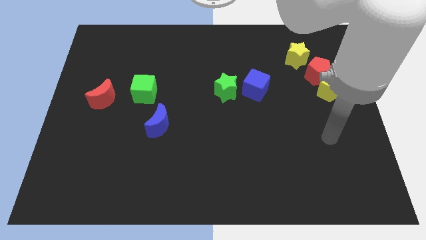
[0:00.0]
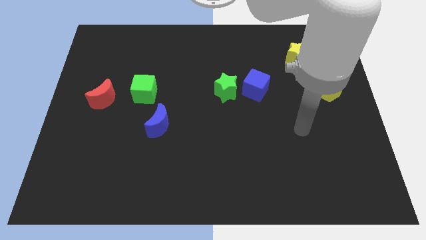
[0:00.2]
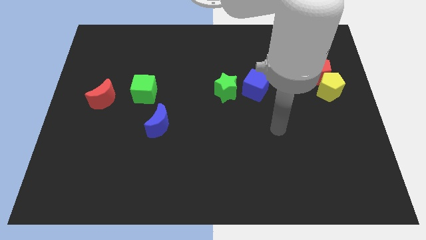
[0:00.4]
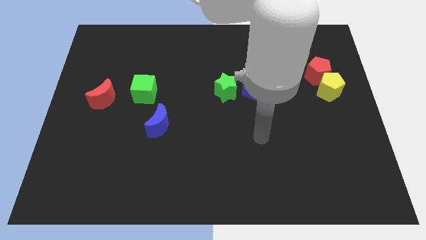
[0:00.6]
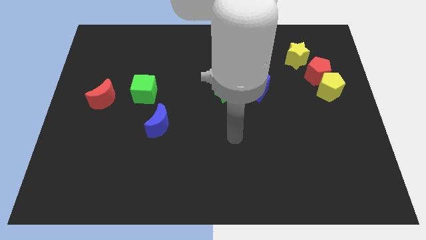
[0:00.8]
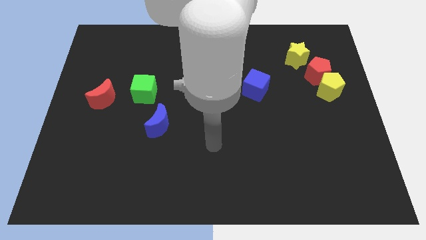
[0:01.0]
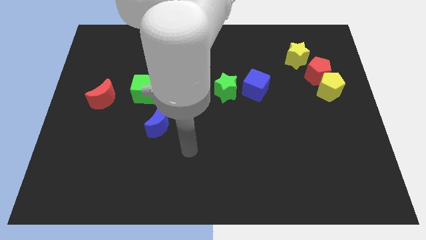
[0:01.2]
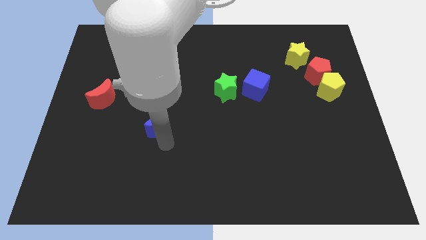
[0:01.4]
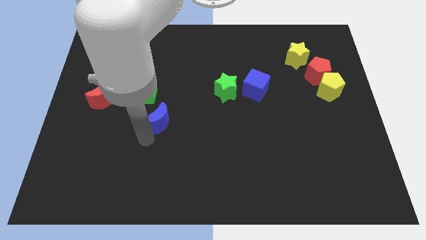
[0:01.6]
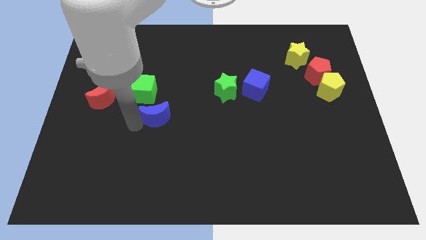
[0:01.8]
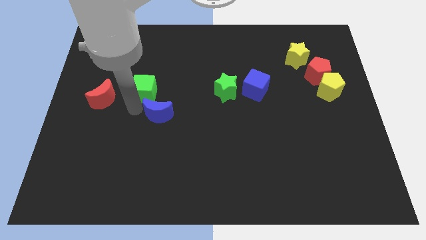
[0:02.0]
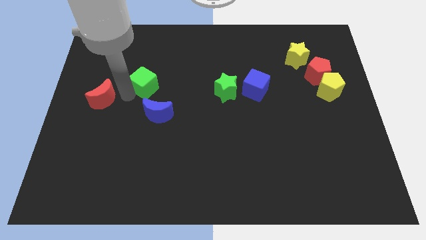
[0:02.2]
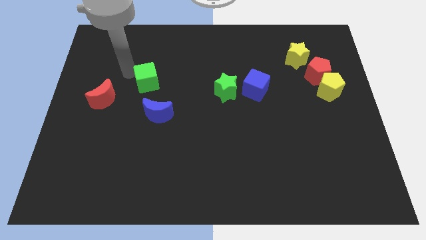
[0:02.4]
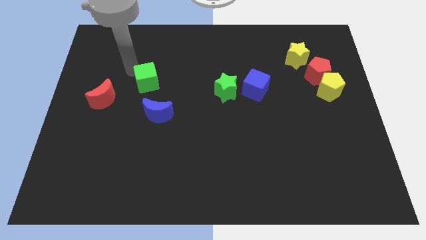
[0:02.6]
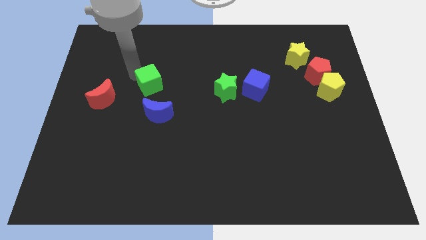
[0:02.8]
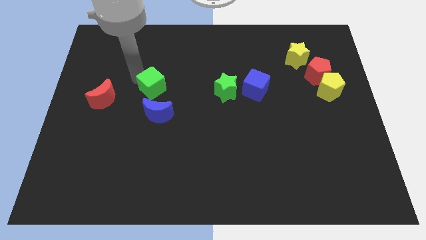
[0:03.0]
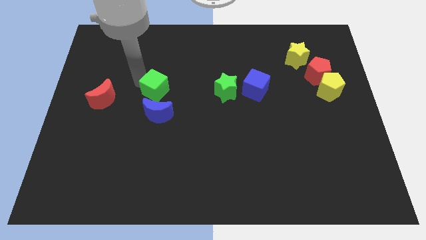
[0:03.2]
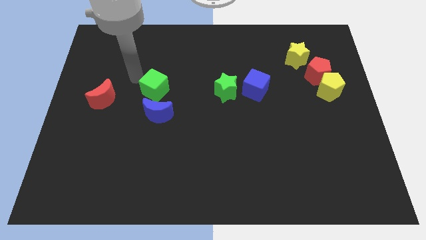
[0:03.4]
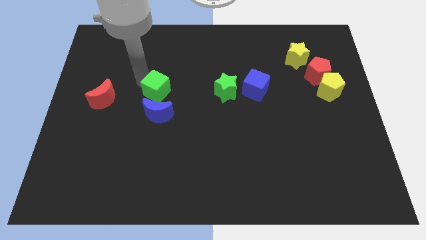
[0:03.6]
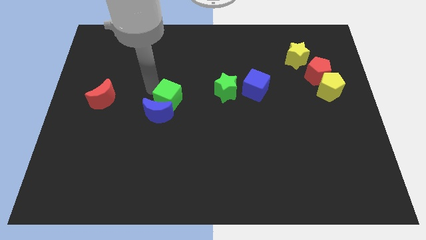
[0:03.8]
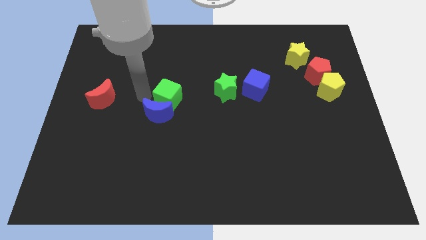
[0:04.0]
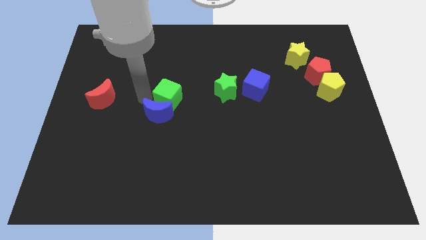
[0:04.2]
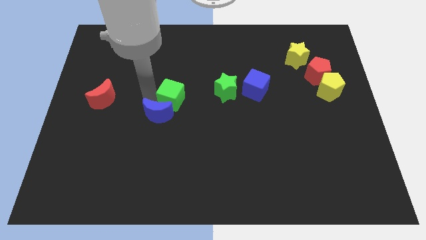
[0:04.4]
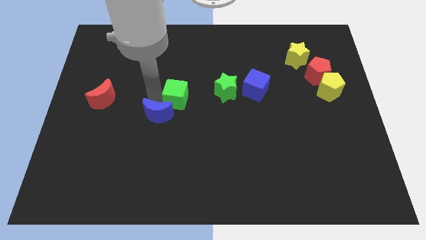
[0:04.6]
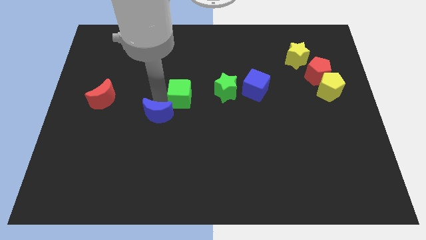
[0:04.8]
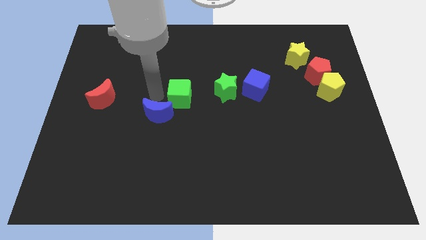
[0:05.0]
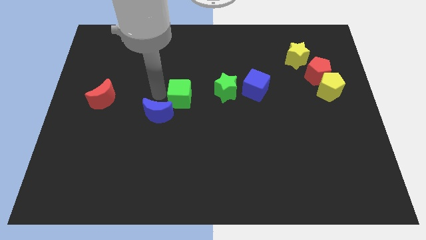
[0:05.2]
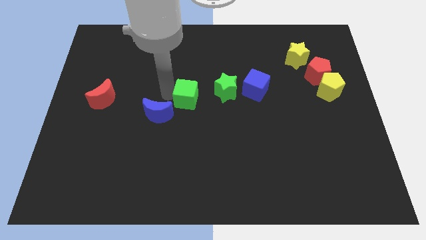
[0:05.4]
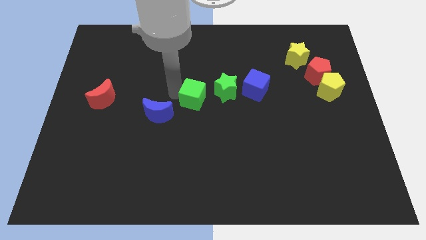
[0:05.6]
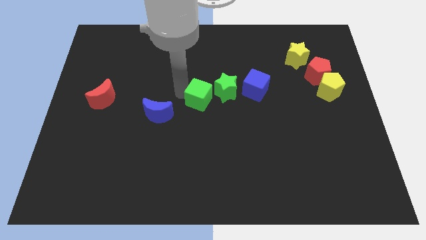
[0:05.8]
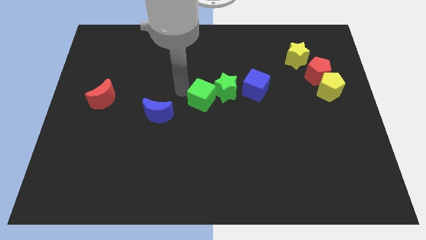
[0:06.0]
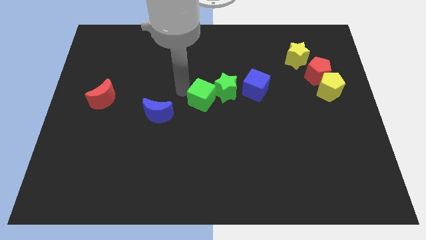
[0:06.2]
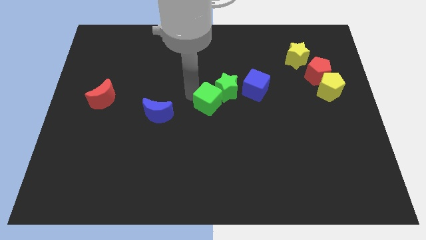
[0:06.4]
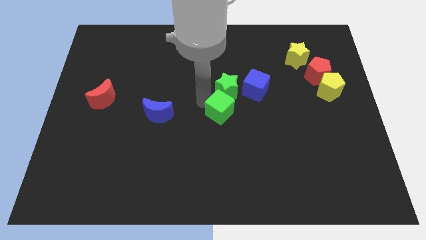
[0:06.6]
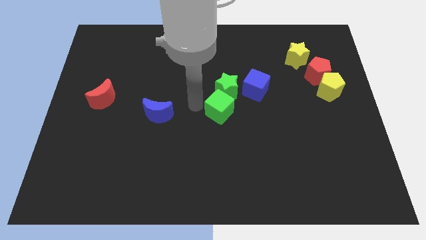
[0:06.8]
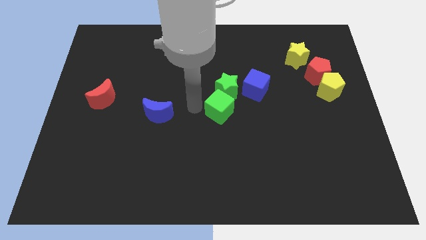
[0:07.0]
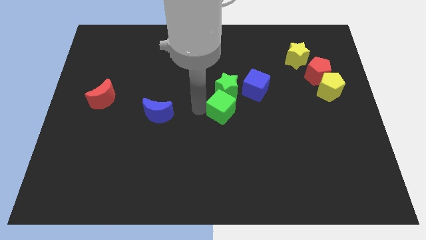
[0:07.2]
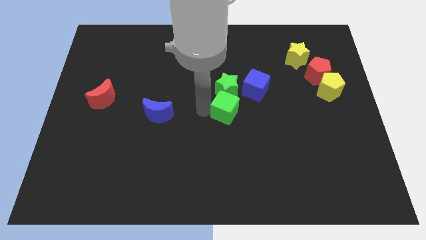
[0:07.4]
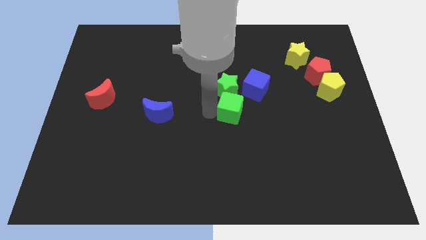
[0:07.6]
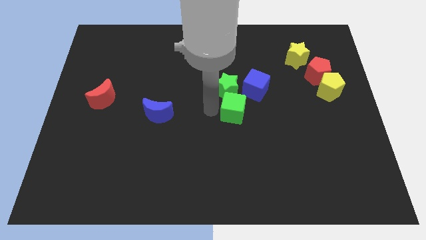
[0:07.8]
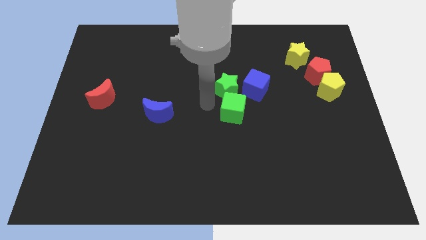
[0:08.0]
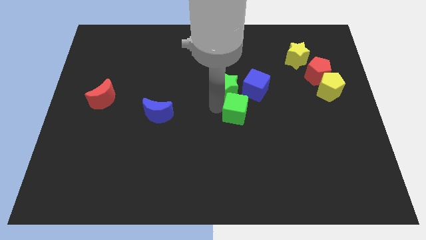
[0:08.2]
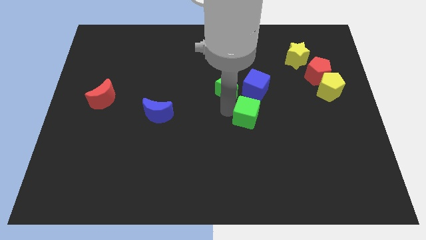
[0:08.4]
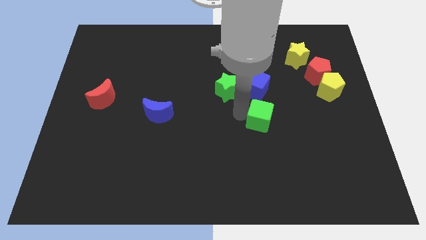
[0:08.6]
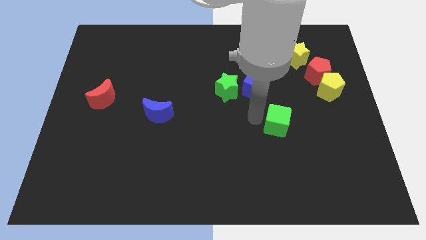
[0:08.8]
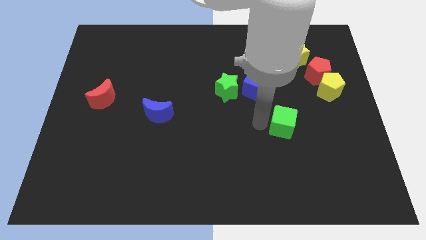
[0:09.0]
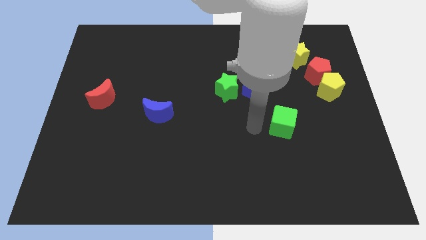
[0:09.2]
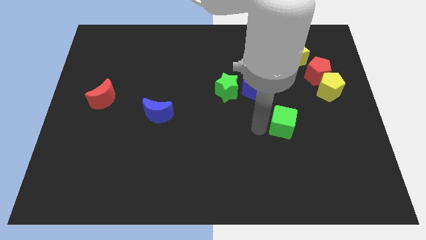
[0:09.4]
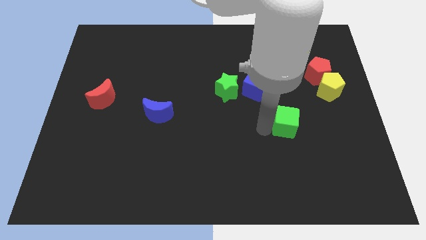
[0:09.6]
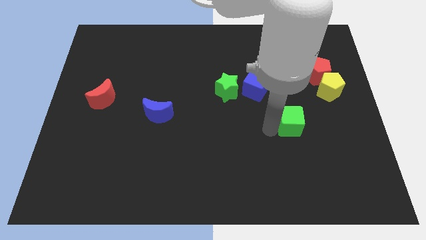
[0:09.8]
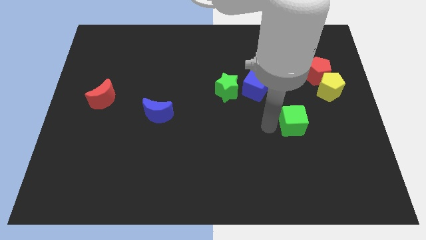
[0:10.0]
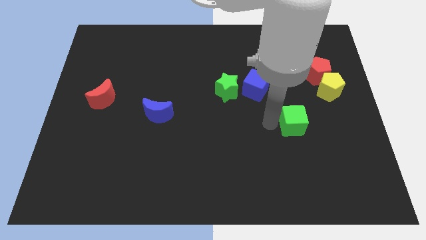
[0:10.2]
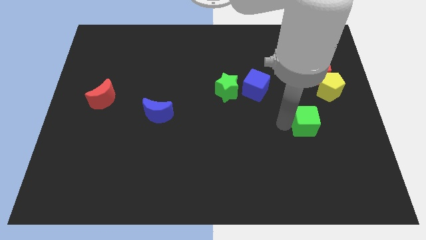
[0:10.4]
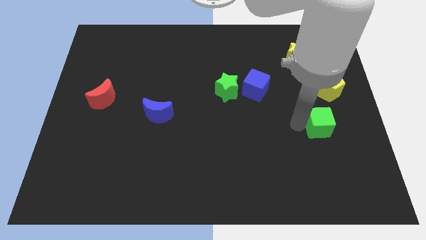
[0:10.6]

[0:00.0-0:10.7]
move the green cube to the bottom side of the yellow pentagon

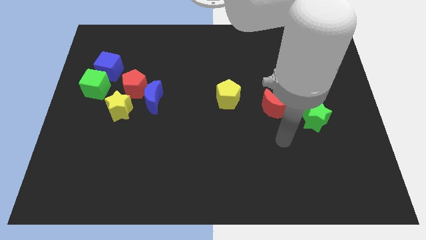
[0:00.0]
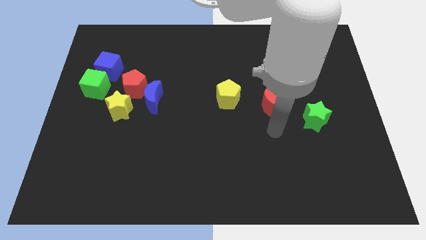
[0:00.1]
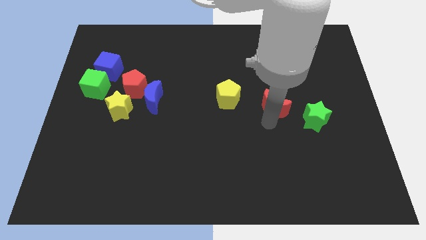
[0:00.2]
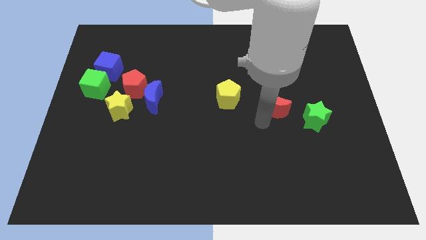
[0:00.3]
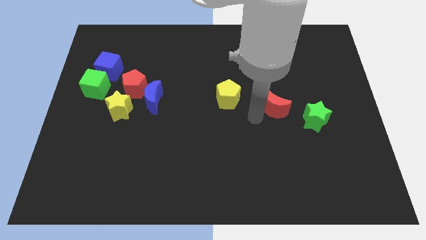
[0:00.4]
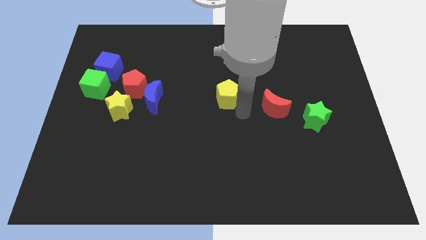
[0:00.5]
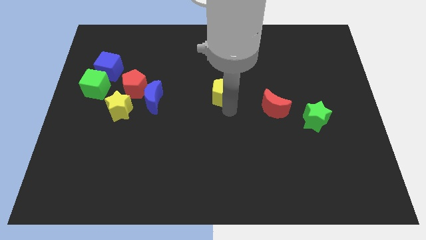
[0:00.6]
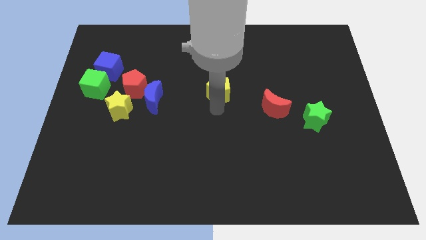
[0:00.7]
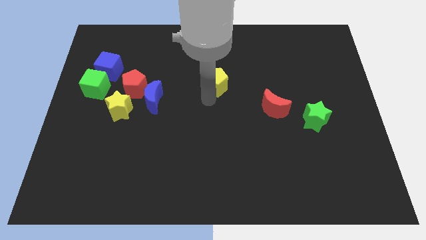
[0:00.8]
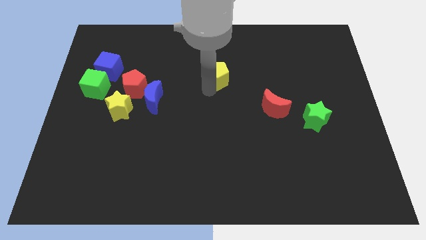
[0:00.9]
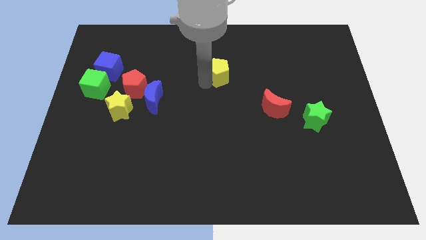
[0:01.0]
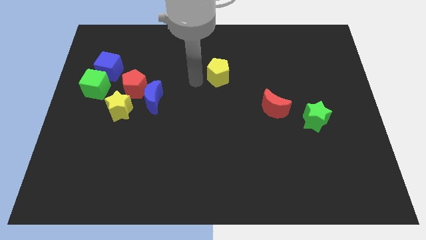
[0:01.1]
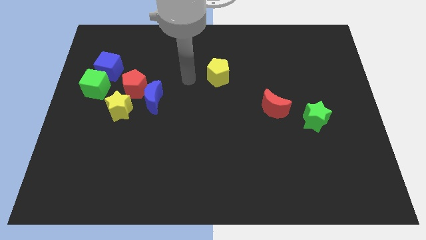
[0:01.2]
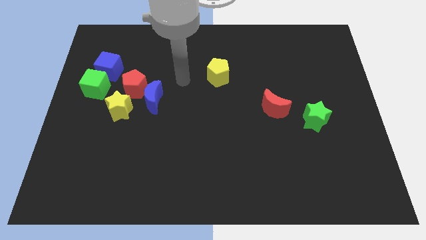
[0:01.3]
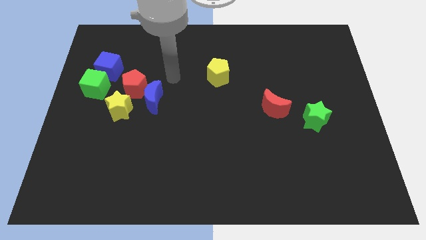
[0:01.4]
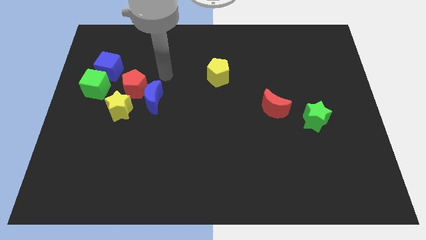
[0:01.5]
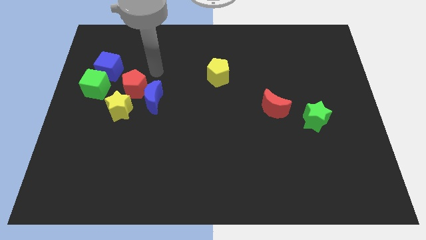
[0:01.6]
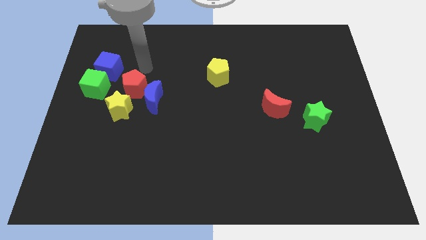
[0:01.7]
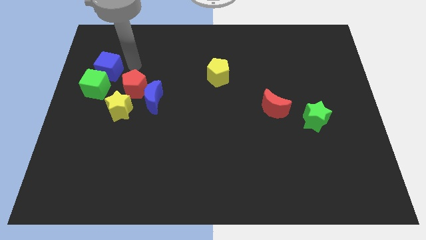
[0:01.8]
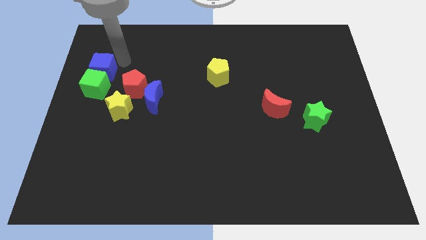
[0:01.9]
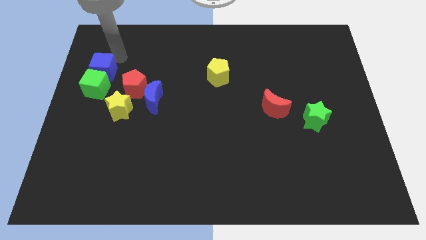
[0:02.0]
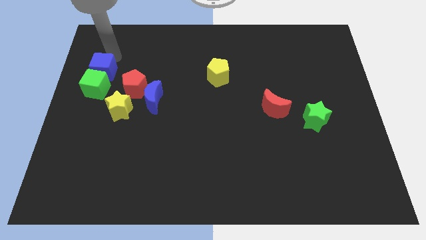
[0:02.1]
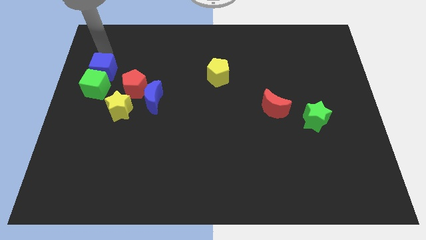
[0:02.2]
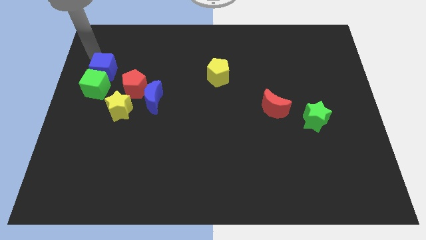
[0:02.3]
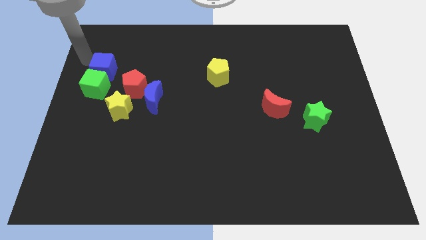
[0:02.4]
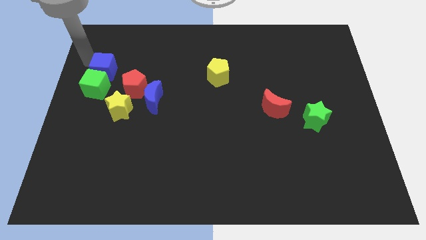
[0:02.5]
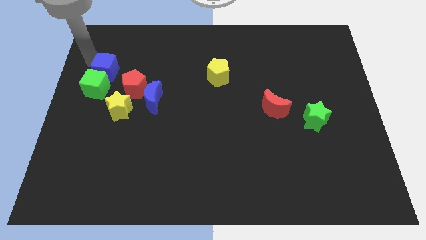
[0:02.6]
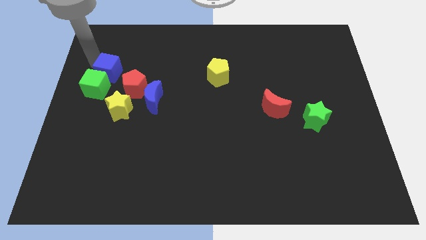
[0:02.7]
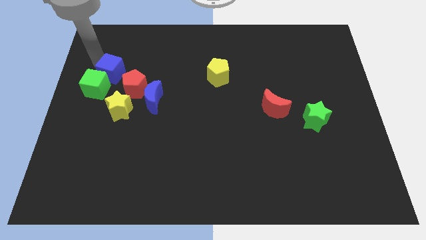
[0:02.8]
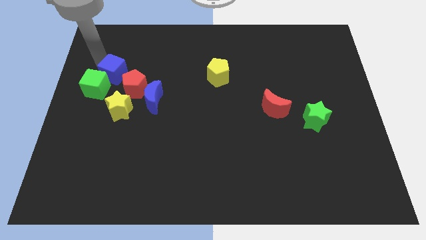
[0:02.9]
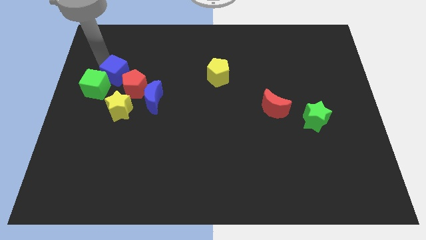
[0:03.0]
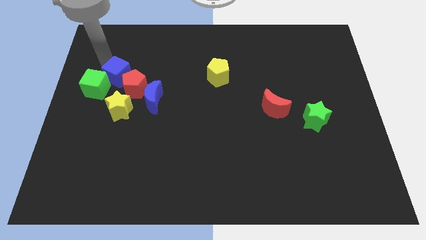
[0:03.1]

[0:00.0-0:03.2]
slide the blue cube diagonally up and to the left of the blue moon
